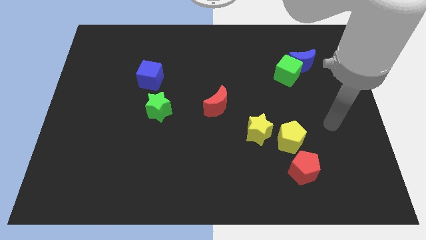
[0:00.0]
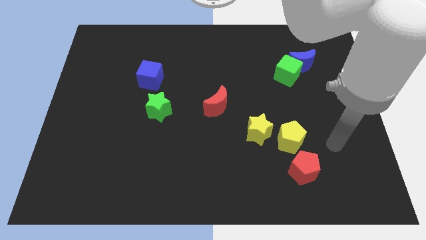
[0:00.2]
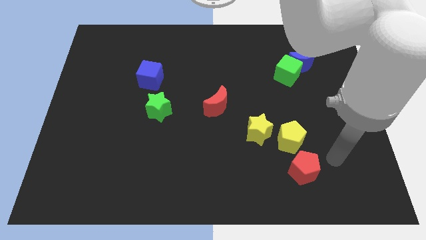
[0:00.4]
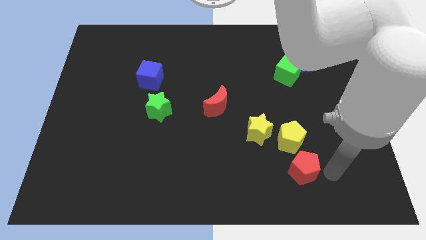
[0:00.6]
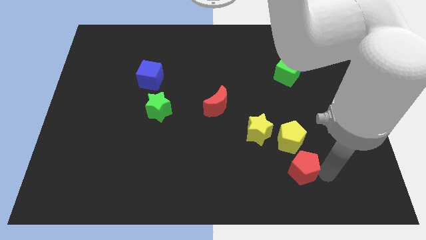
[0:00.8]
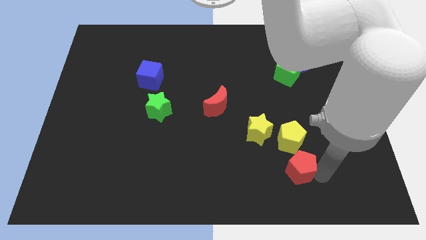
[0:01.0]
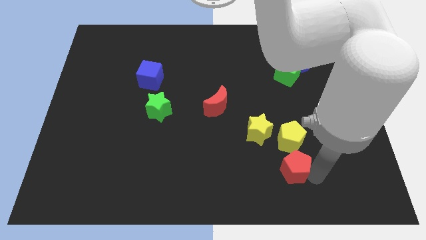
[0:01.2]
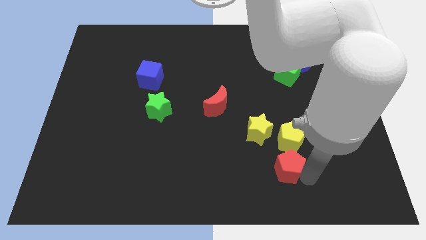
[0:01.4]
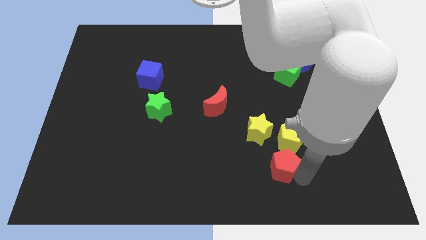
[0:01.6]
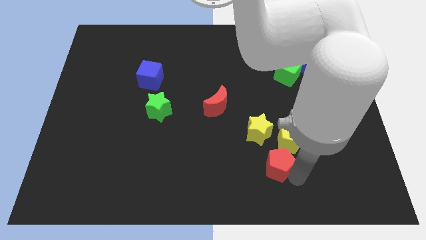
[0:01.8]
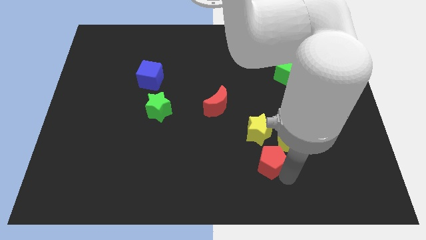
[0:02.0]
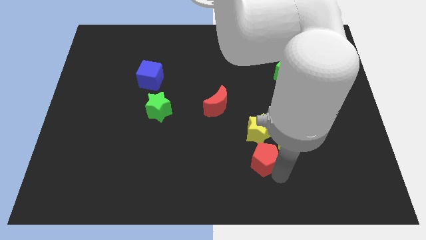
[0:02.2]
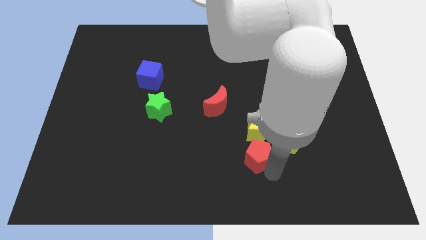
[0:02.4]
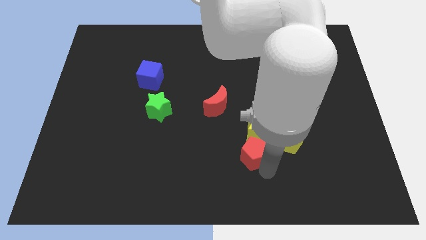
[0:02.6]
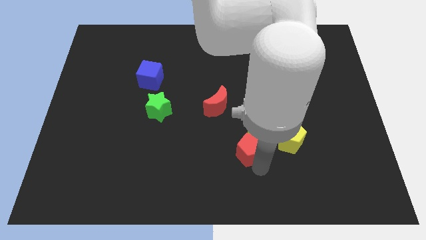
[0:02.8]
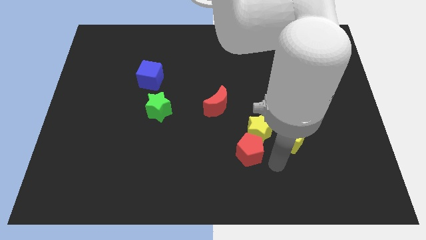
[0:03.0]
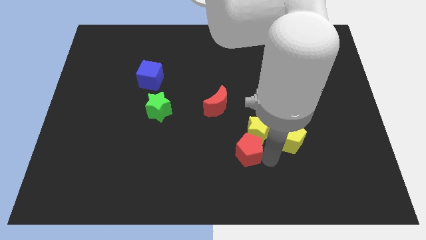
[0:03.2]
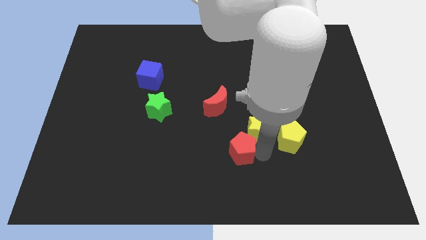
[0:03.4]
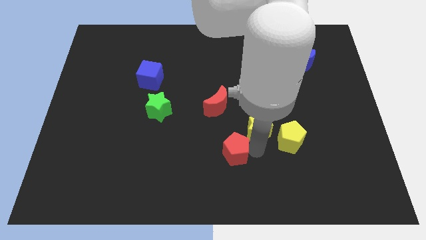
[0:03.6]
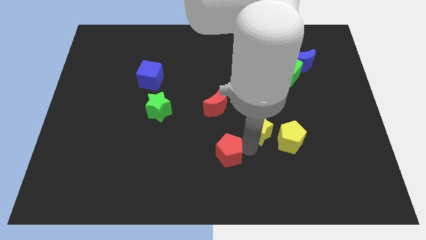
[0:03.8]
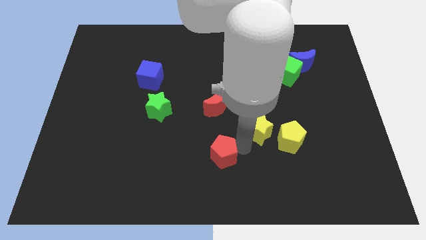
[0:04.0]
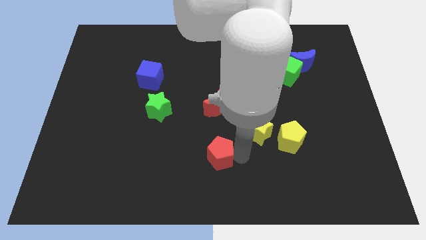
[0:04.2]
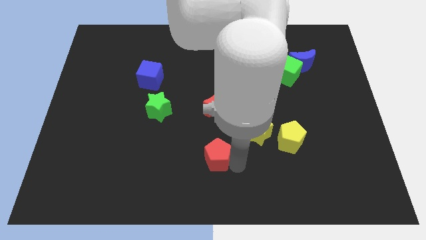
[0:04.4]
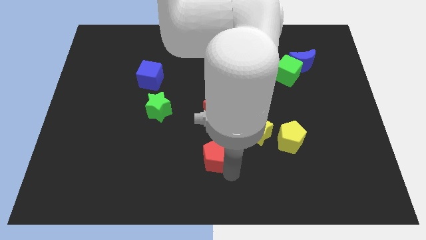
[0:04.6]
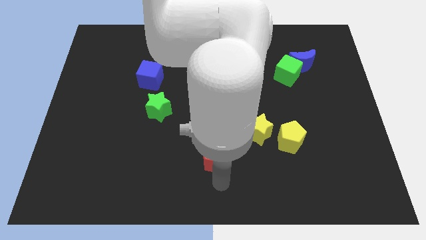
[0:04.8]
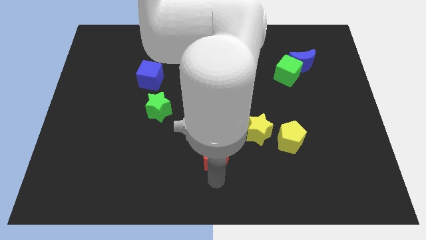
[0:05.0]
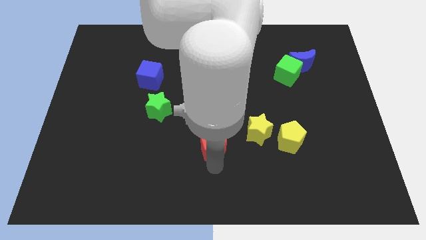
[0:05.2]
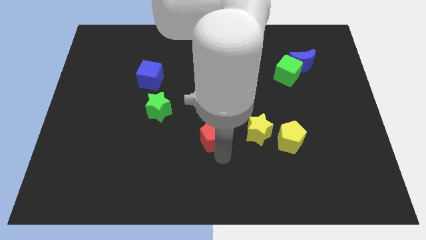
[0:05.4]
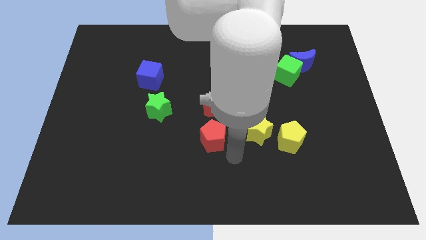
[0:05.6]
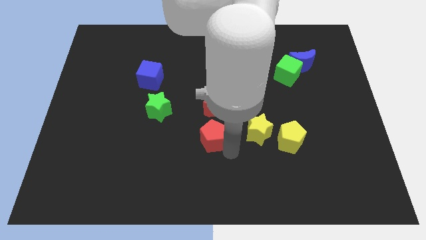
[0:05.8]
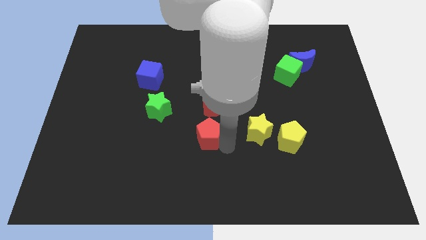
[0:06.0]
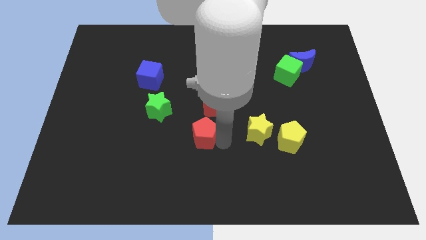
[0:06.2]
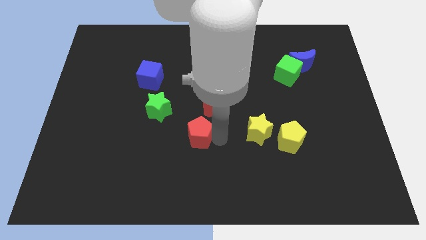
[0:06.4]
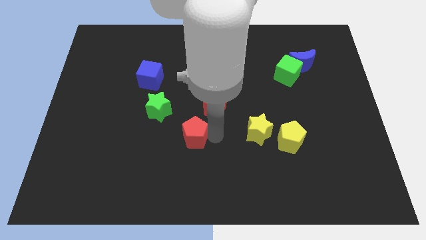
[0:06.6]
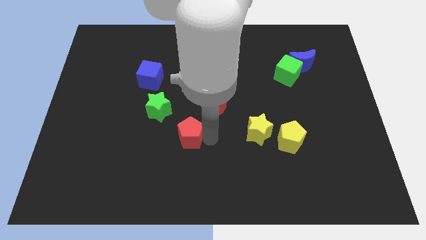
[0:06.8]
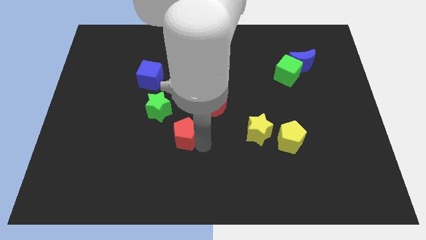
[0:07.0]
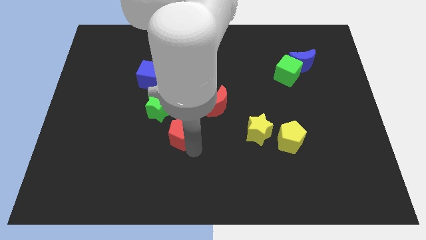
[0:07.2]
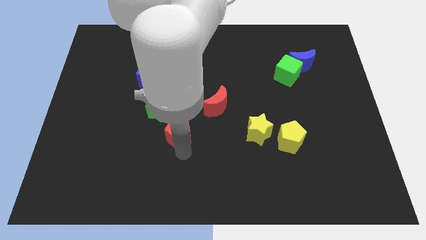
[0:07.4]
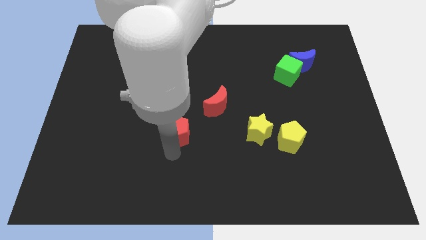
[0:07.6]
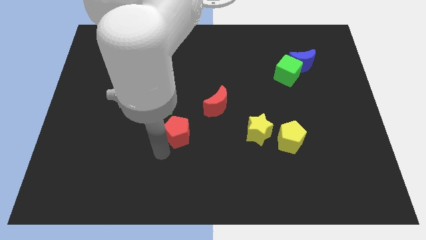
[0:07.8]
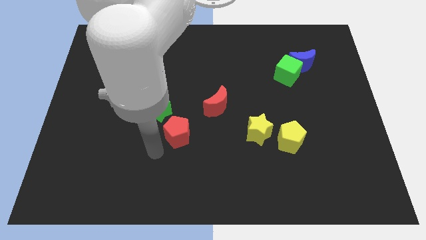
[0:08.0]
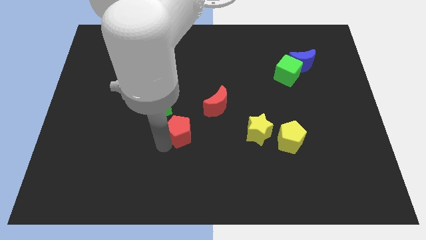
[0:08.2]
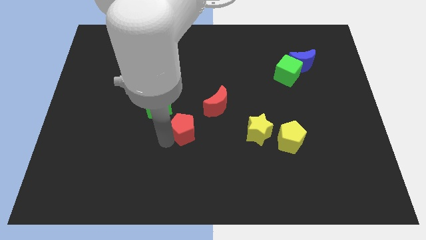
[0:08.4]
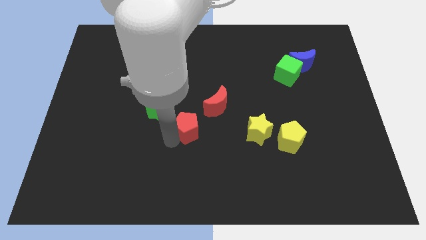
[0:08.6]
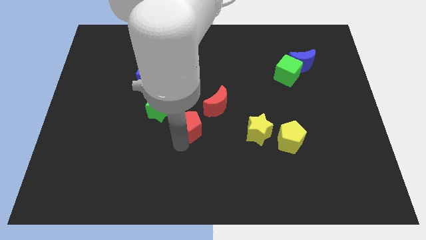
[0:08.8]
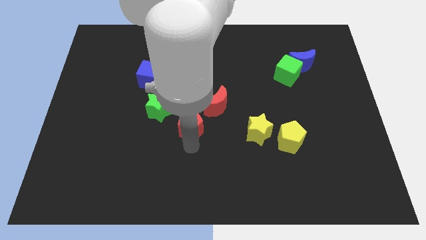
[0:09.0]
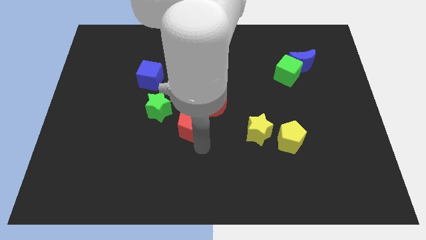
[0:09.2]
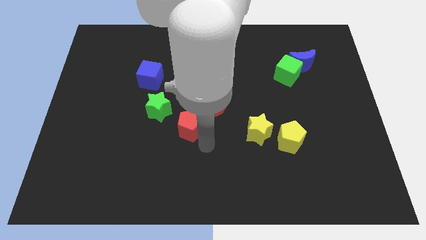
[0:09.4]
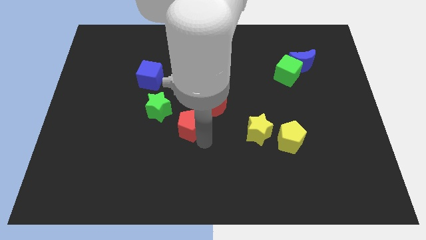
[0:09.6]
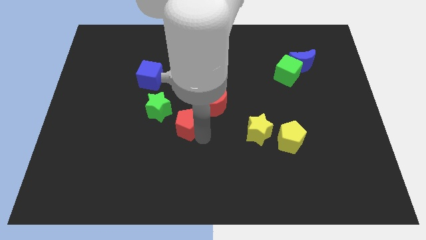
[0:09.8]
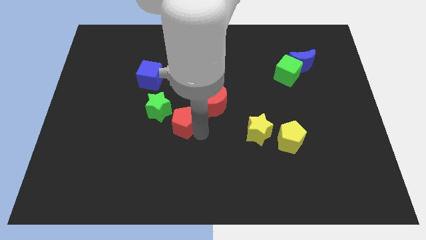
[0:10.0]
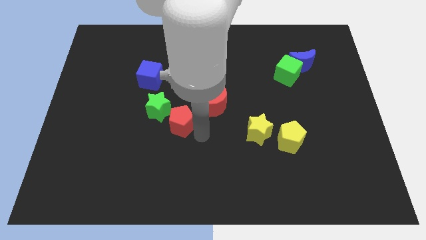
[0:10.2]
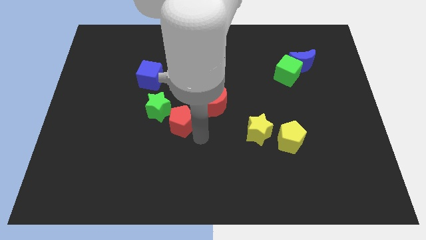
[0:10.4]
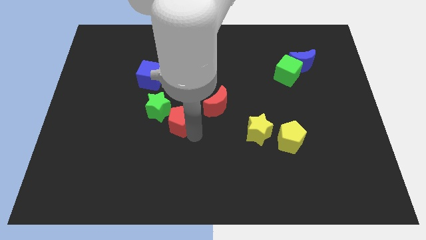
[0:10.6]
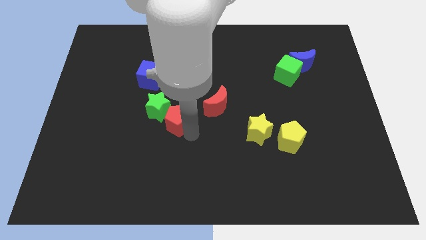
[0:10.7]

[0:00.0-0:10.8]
push the red pentagon close to the green star

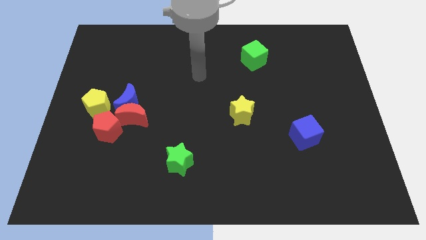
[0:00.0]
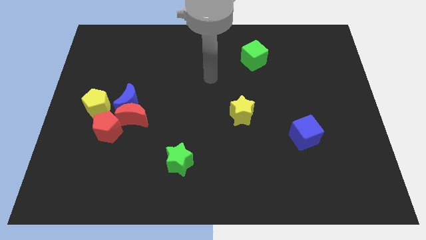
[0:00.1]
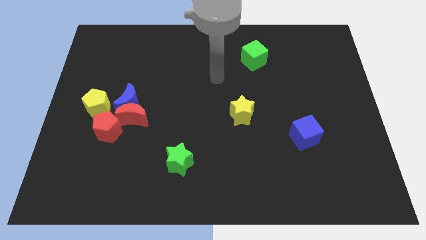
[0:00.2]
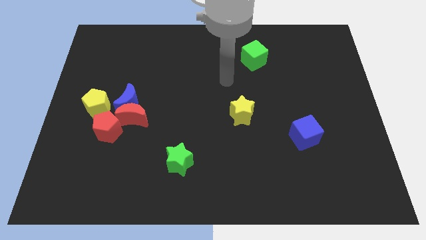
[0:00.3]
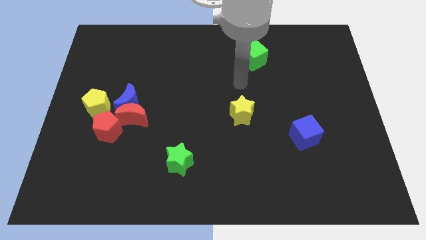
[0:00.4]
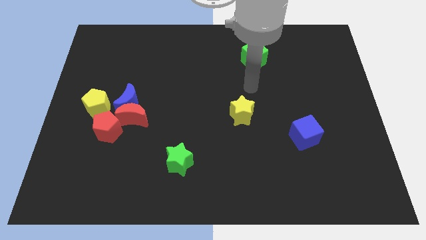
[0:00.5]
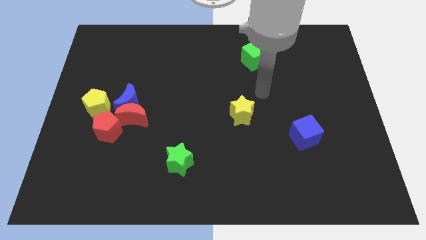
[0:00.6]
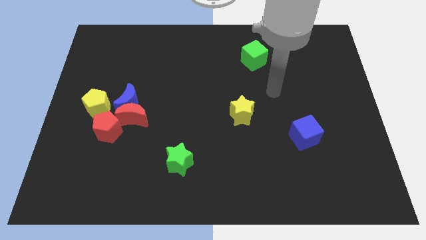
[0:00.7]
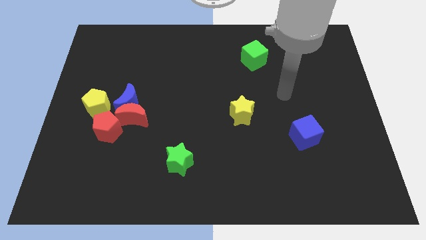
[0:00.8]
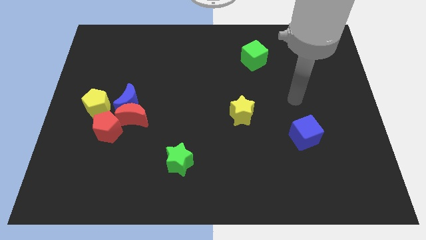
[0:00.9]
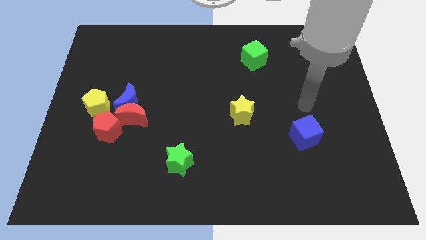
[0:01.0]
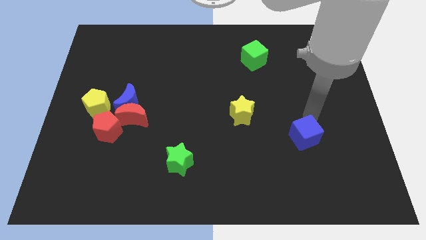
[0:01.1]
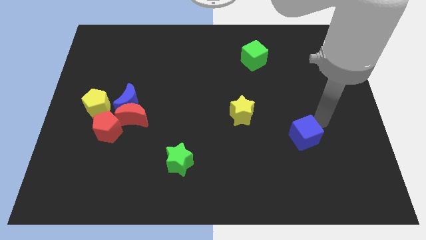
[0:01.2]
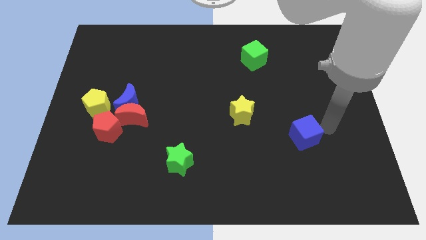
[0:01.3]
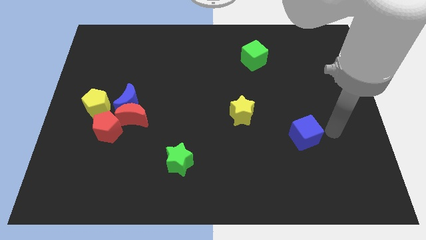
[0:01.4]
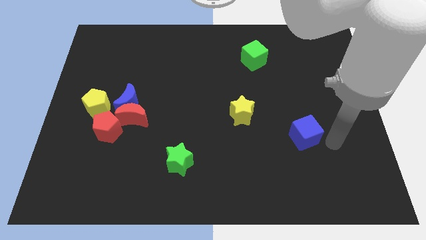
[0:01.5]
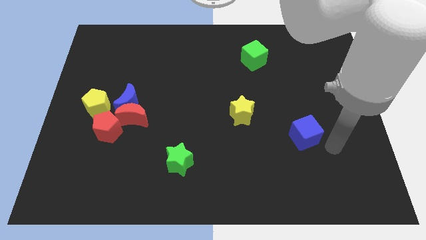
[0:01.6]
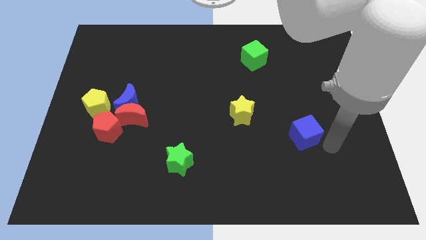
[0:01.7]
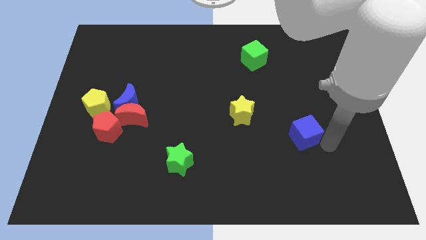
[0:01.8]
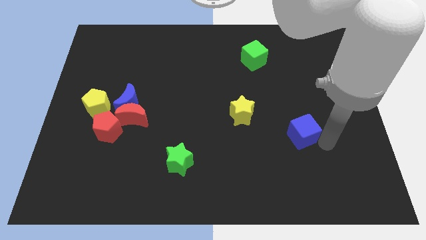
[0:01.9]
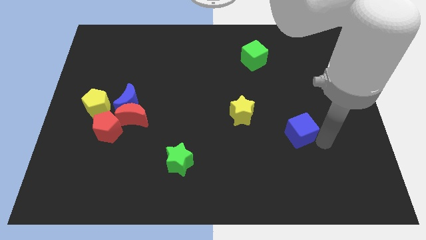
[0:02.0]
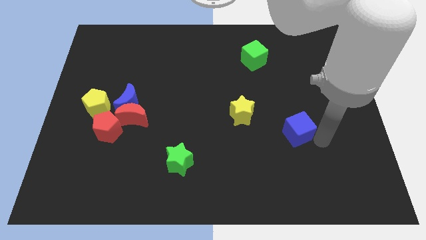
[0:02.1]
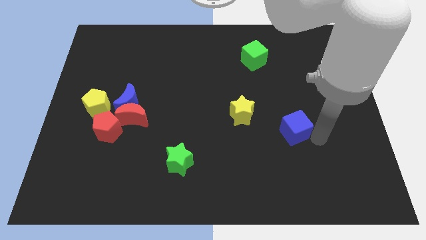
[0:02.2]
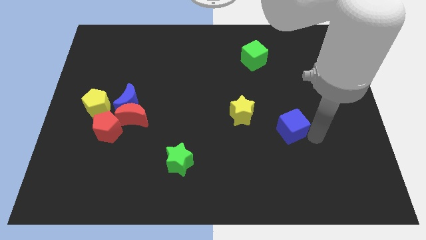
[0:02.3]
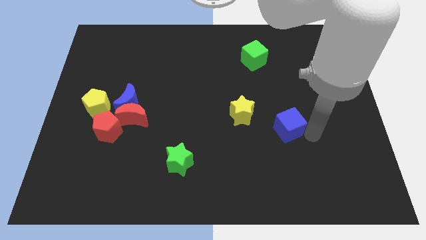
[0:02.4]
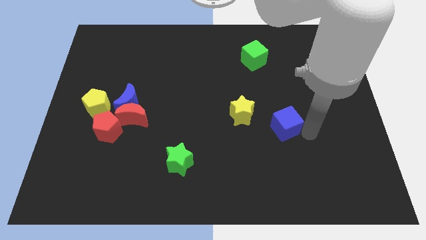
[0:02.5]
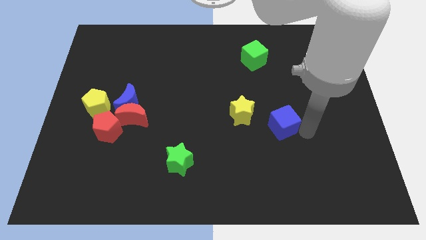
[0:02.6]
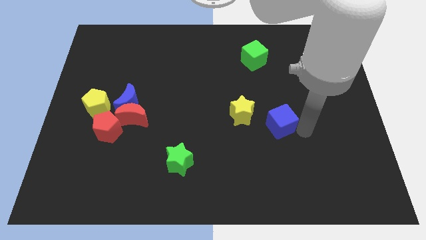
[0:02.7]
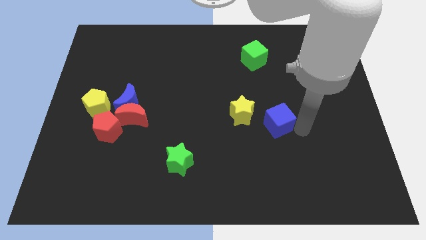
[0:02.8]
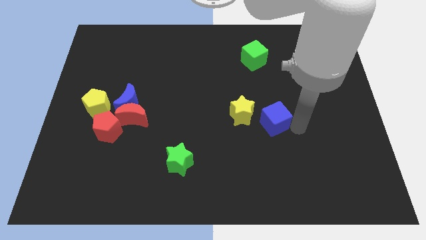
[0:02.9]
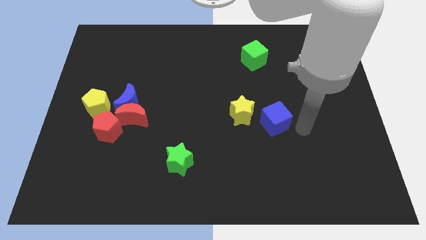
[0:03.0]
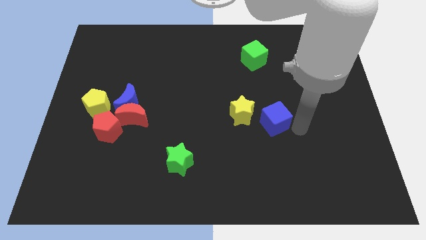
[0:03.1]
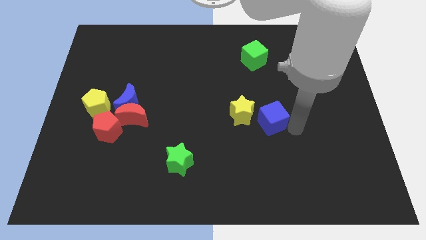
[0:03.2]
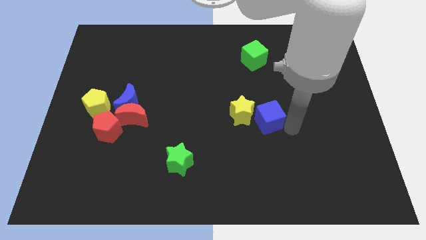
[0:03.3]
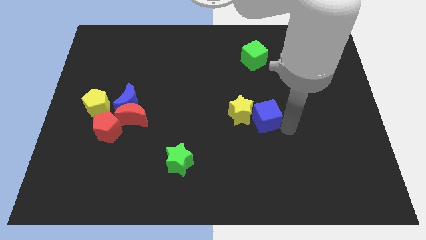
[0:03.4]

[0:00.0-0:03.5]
push the blue cube towards the yellow star
